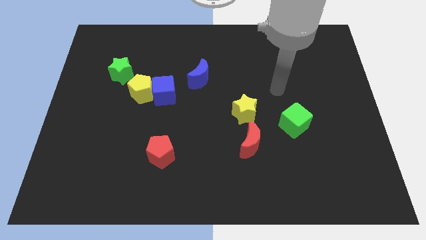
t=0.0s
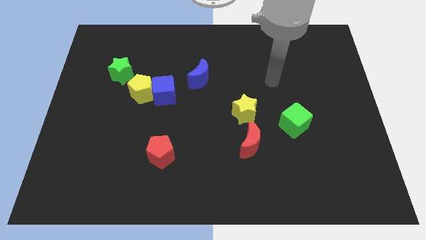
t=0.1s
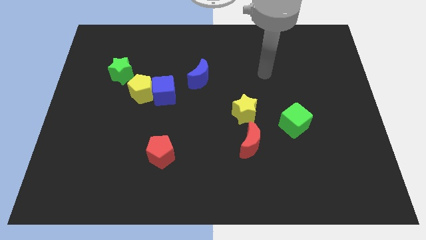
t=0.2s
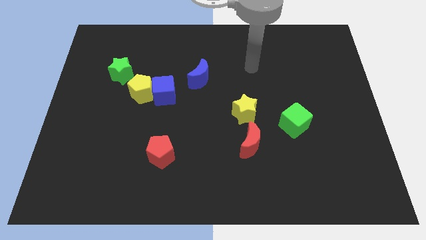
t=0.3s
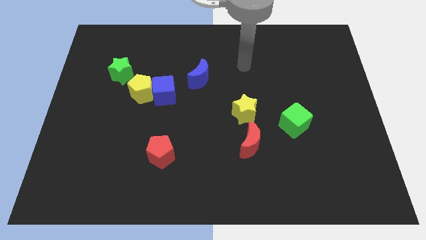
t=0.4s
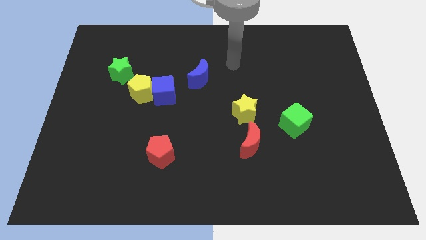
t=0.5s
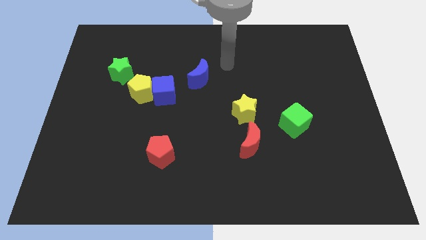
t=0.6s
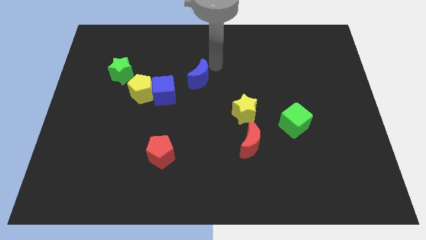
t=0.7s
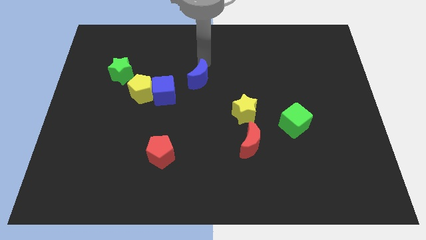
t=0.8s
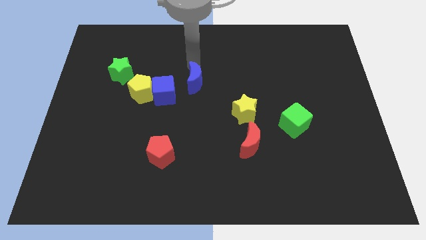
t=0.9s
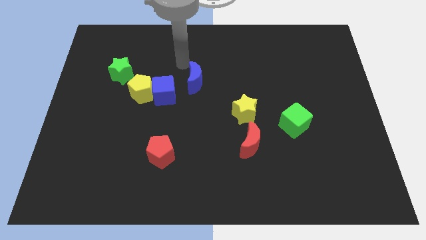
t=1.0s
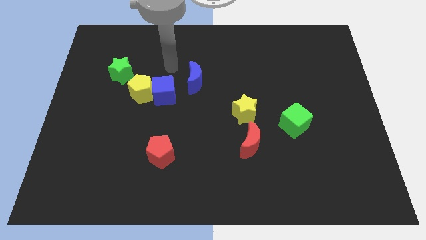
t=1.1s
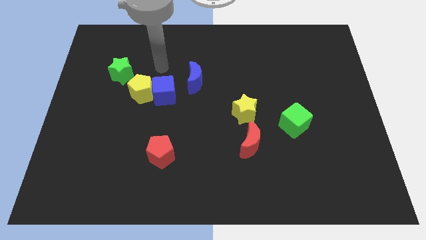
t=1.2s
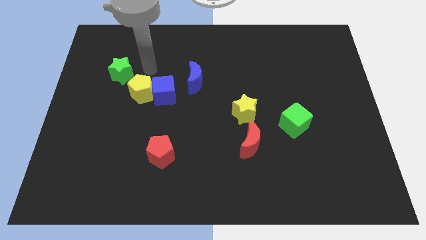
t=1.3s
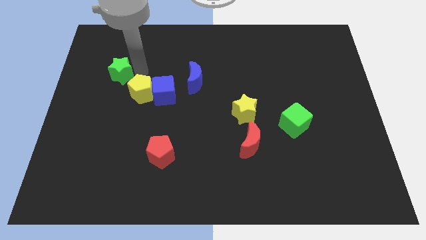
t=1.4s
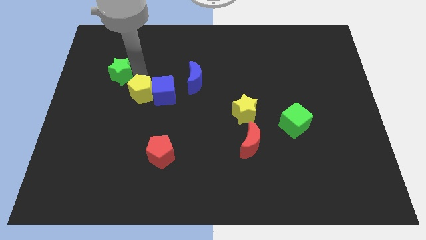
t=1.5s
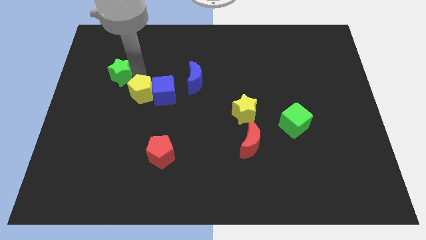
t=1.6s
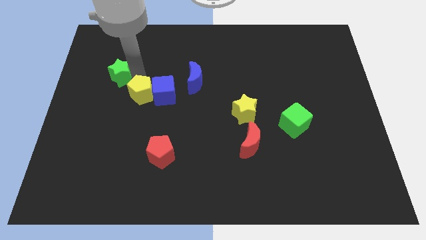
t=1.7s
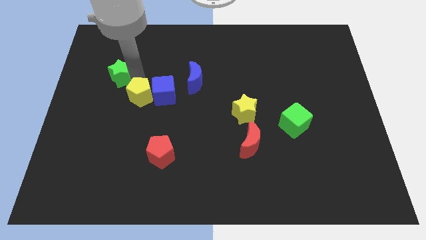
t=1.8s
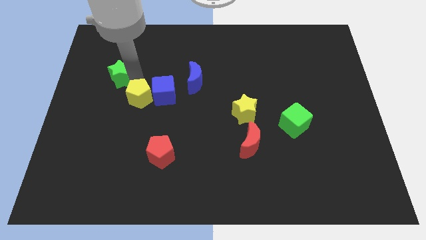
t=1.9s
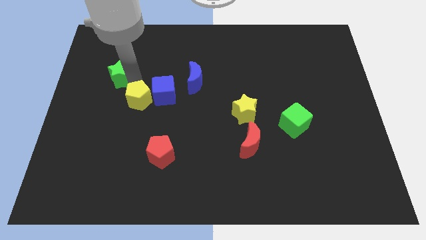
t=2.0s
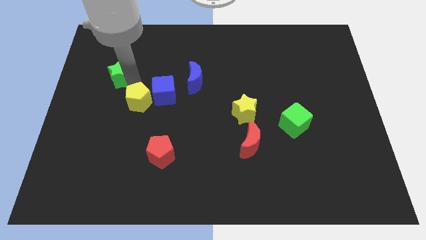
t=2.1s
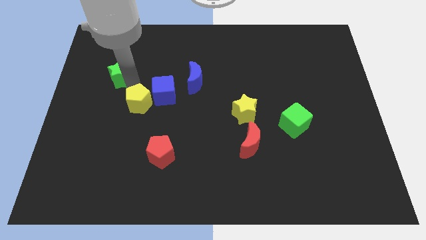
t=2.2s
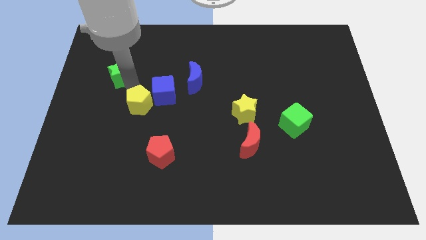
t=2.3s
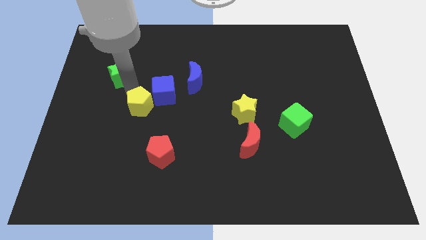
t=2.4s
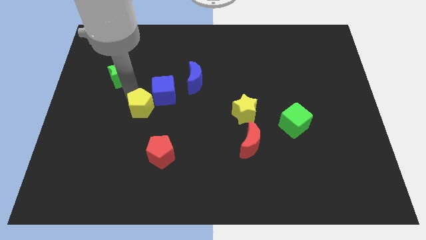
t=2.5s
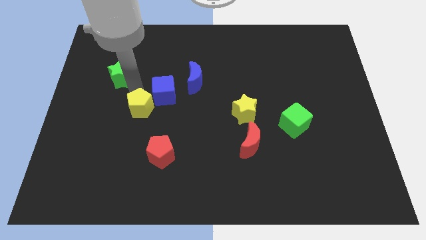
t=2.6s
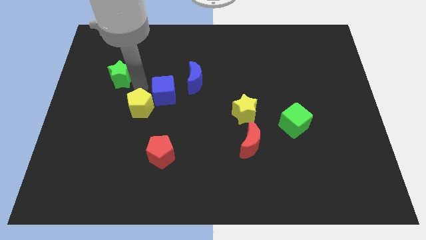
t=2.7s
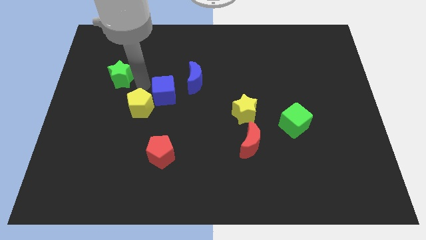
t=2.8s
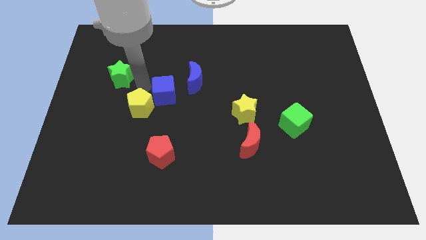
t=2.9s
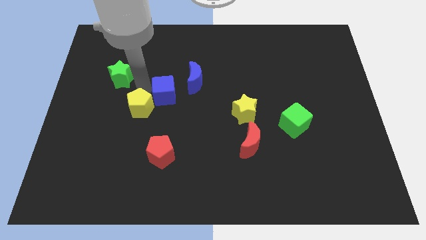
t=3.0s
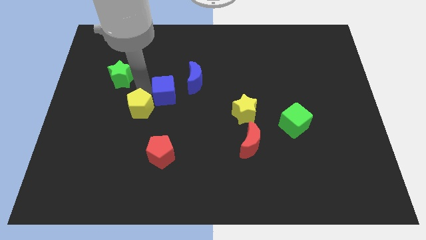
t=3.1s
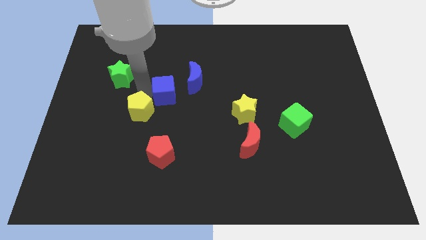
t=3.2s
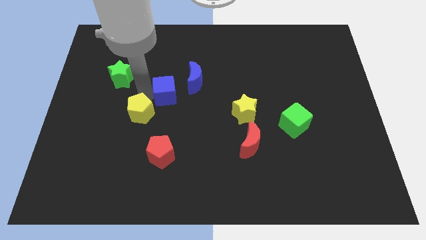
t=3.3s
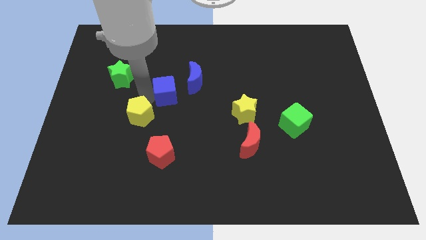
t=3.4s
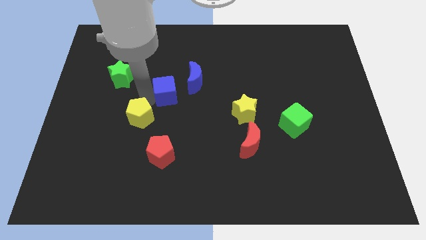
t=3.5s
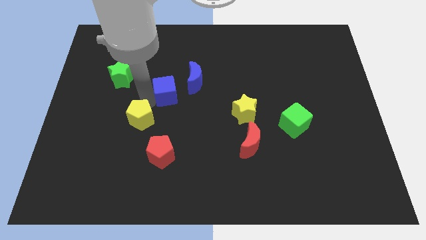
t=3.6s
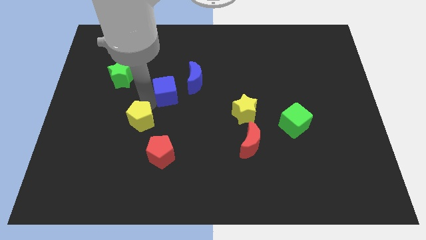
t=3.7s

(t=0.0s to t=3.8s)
move the yellow pentagon away from the blue cube and green star

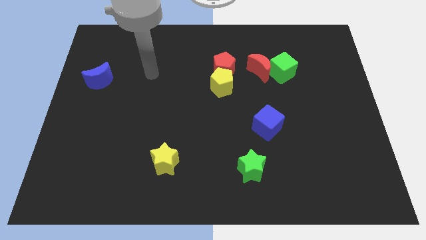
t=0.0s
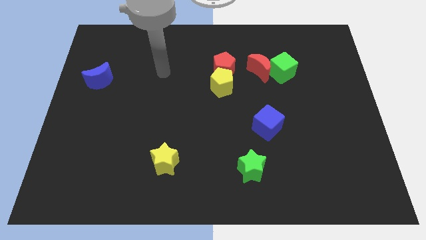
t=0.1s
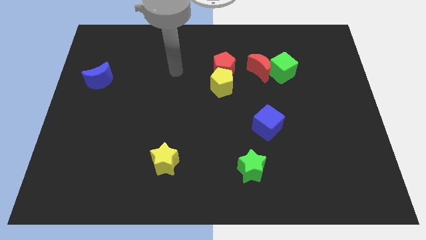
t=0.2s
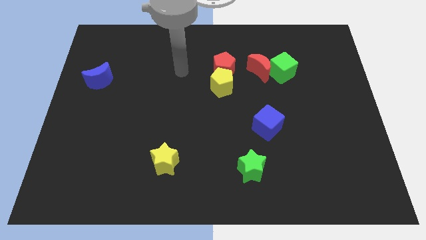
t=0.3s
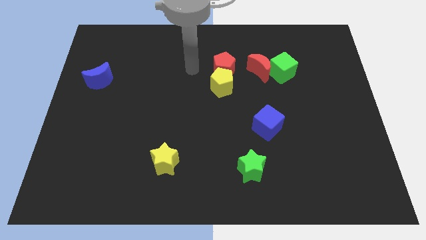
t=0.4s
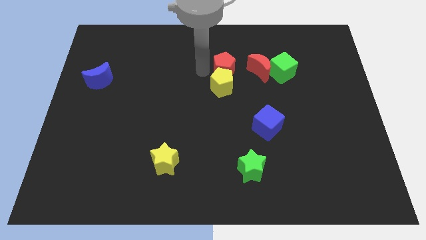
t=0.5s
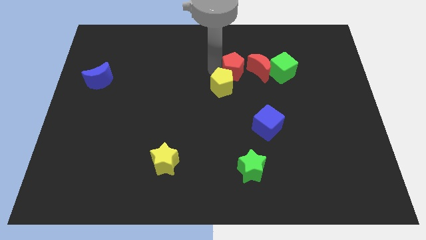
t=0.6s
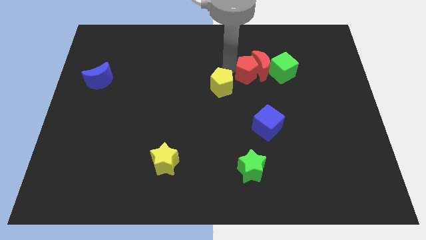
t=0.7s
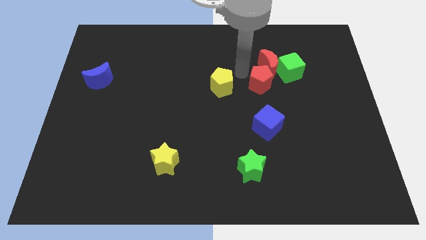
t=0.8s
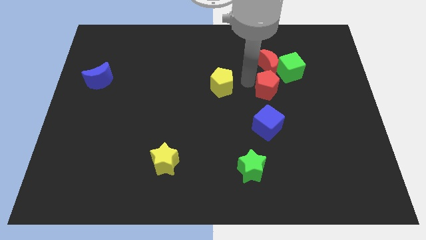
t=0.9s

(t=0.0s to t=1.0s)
separate the yellow pentagon from the red pentagon

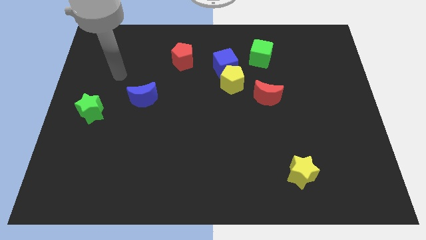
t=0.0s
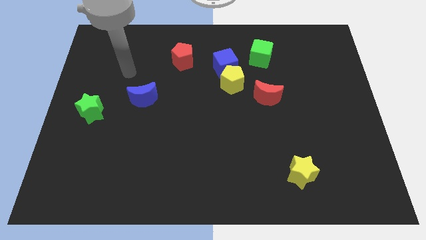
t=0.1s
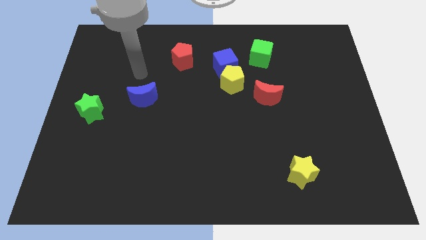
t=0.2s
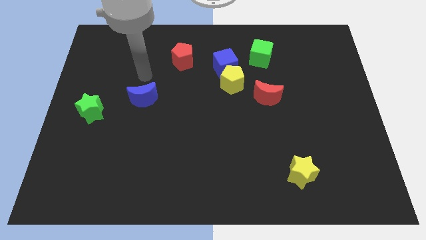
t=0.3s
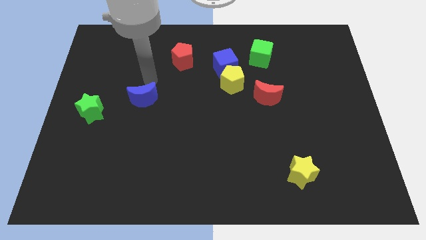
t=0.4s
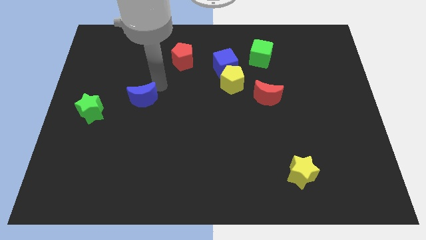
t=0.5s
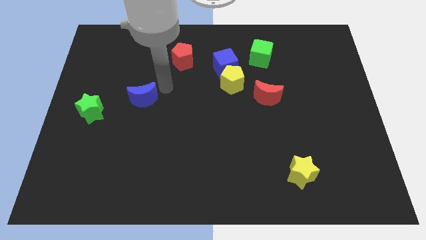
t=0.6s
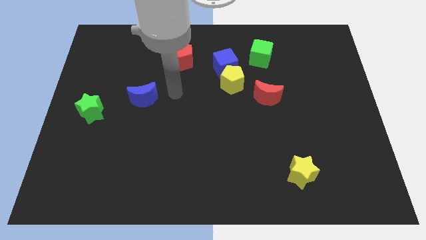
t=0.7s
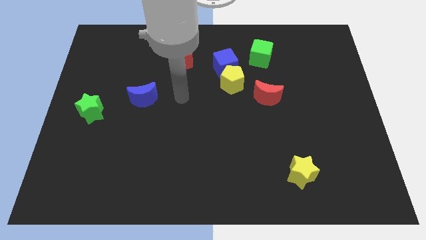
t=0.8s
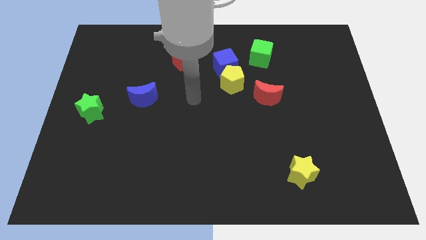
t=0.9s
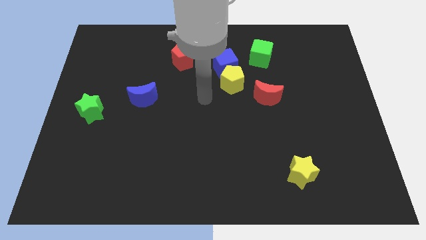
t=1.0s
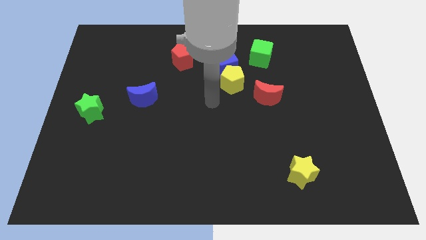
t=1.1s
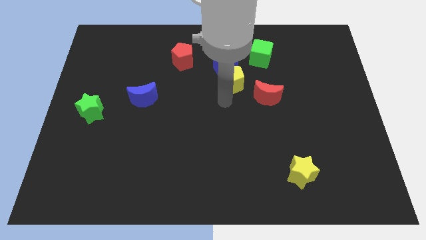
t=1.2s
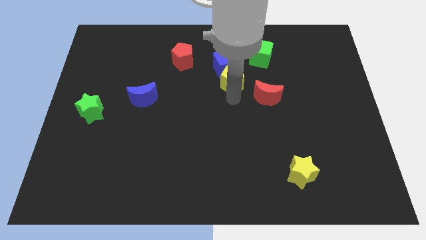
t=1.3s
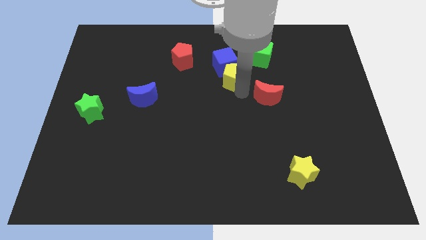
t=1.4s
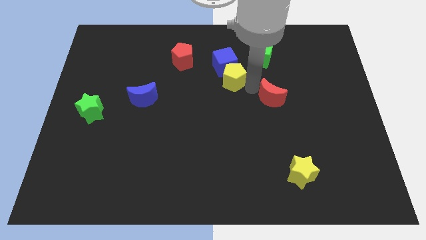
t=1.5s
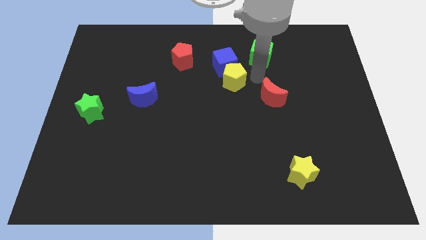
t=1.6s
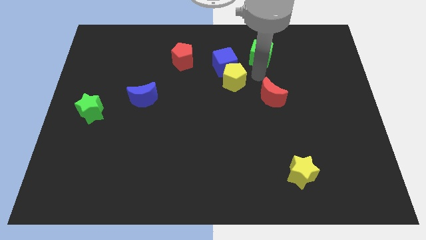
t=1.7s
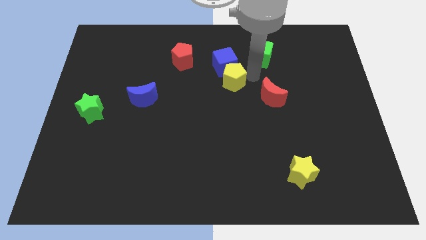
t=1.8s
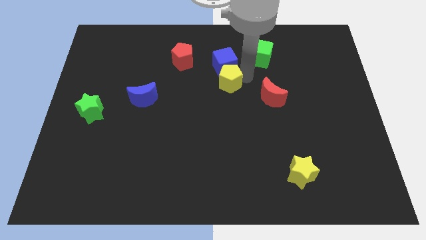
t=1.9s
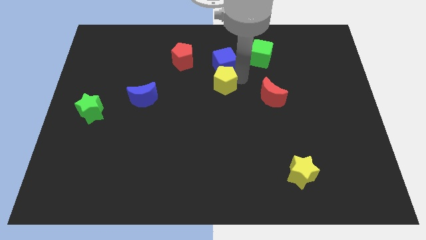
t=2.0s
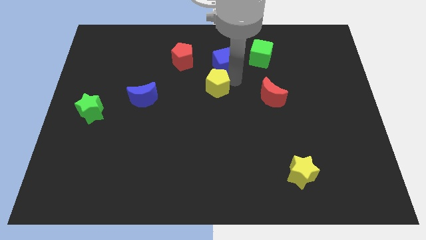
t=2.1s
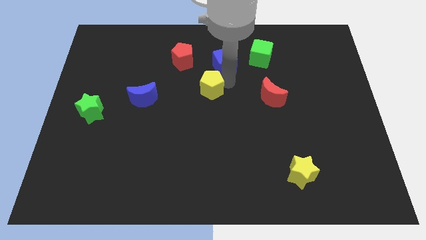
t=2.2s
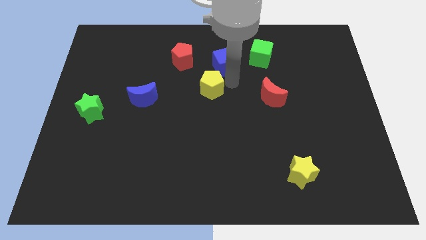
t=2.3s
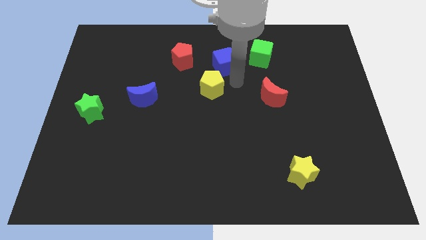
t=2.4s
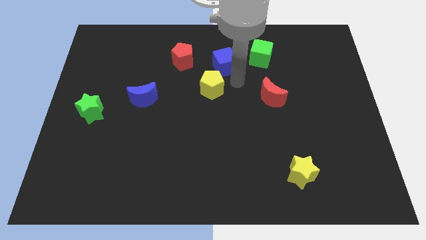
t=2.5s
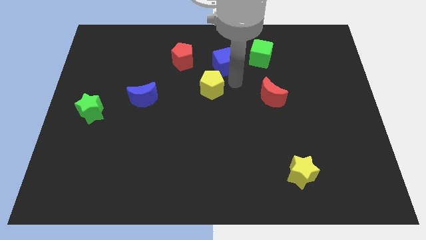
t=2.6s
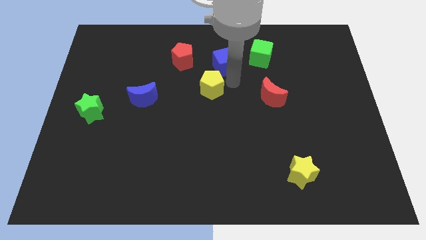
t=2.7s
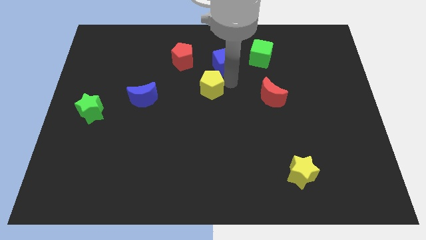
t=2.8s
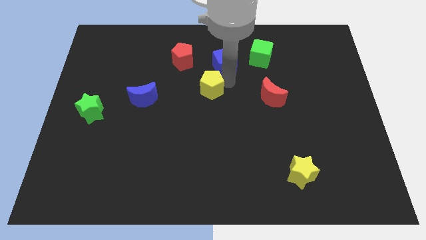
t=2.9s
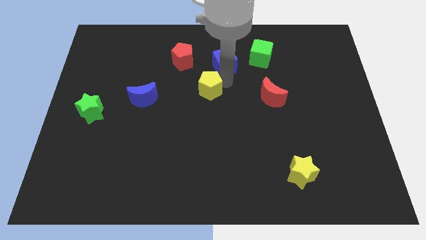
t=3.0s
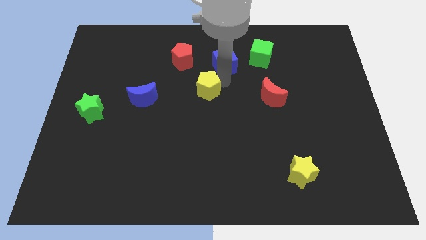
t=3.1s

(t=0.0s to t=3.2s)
separate the yellow pentagon from the blue cube and red moon

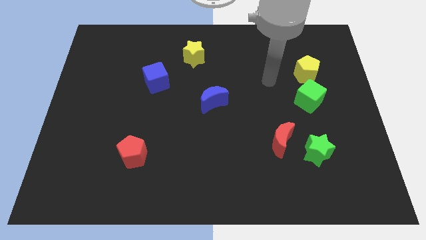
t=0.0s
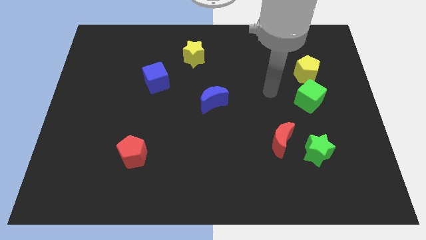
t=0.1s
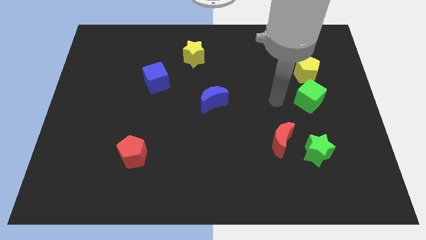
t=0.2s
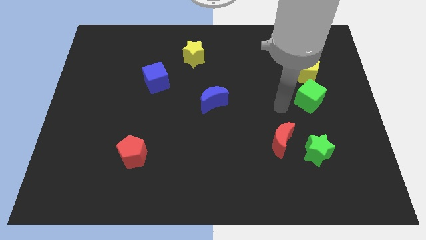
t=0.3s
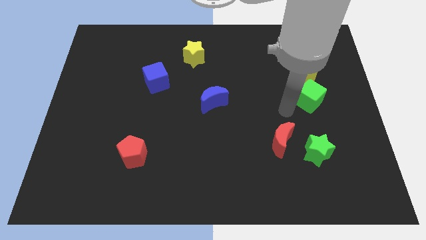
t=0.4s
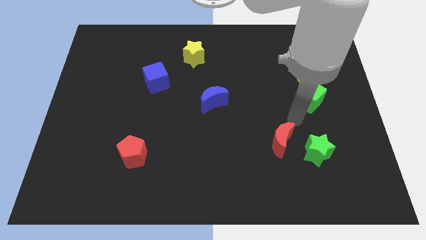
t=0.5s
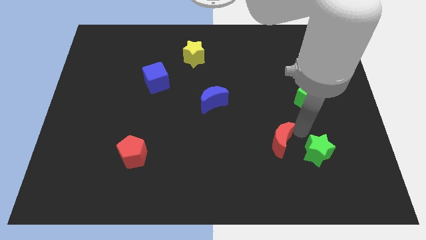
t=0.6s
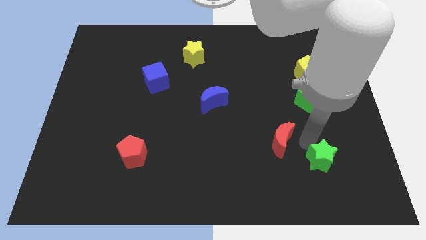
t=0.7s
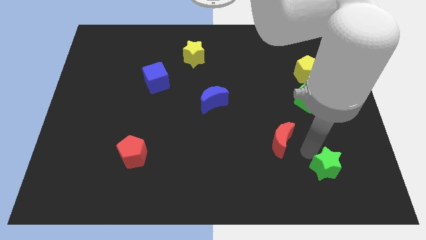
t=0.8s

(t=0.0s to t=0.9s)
separate the red moon from the green star

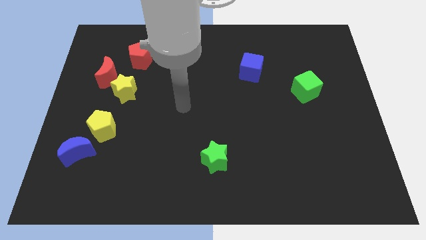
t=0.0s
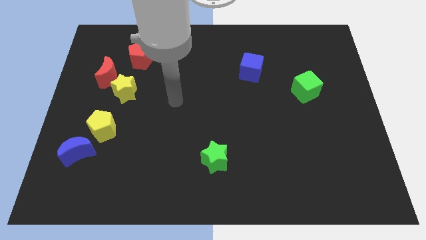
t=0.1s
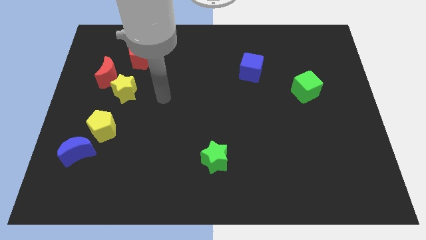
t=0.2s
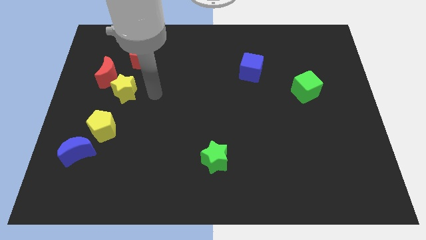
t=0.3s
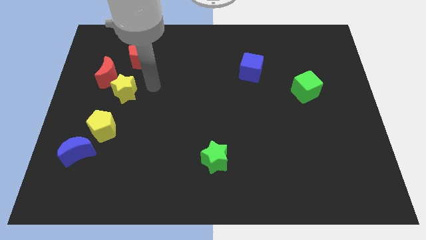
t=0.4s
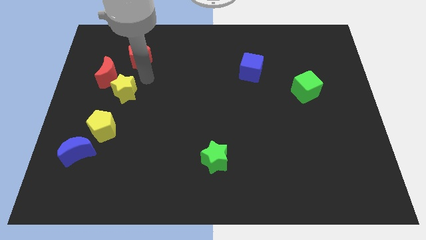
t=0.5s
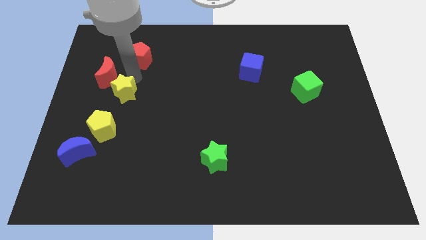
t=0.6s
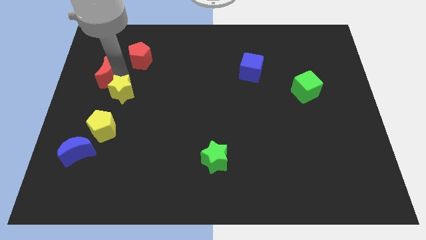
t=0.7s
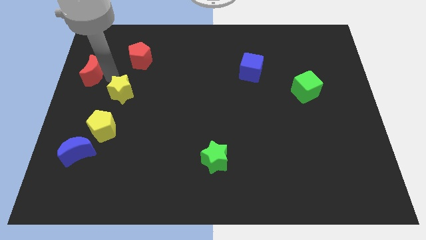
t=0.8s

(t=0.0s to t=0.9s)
pull the yellow star apart from the red moon
